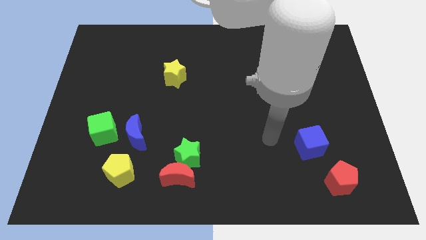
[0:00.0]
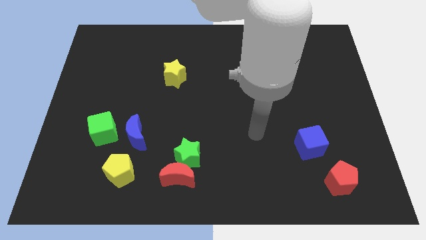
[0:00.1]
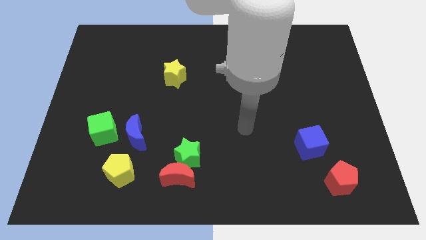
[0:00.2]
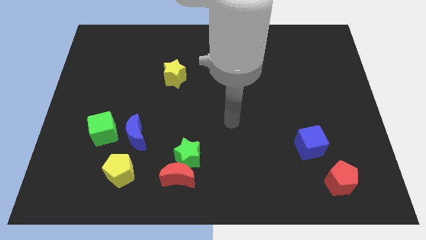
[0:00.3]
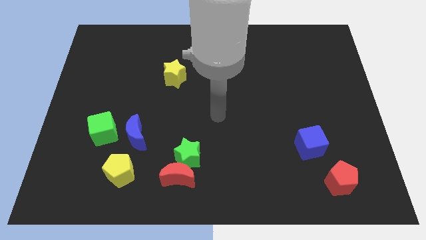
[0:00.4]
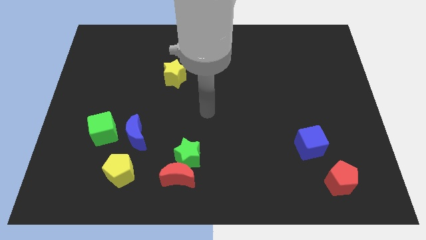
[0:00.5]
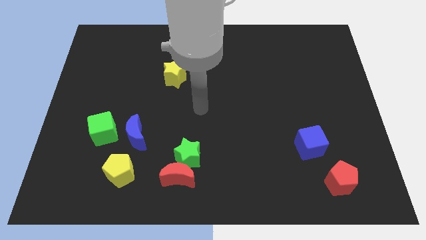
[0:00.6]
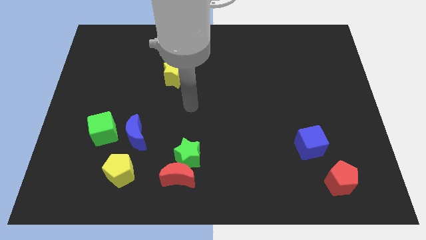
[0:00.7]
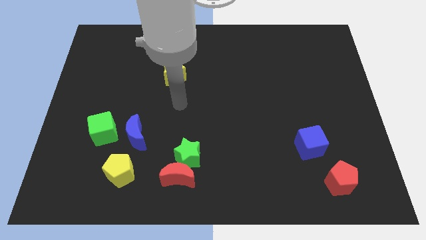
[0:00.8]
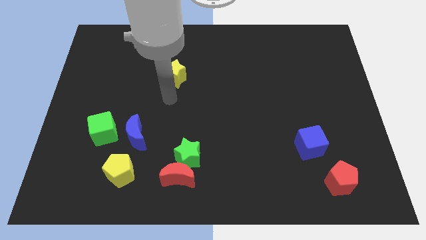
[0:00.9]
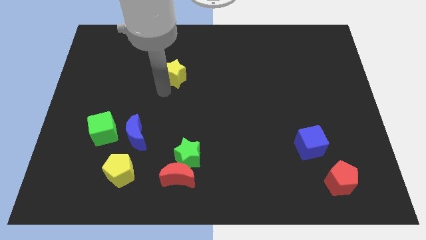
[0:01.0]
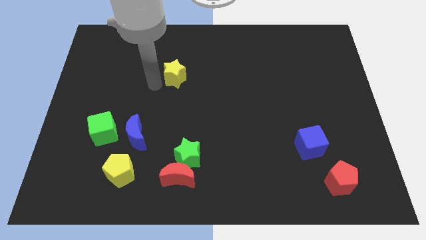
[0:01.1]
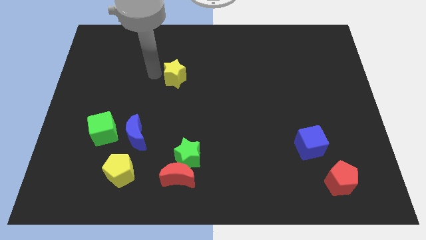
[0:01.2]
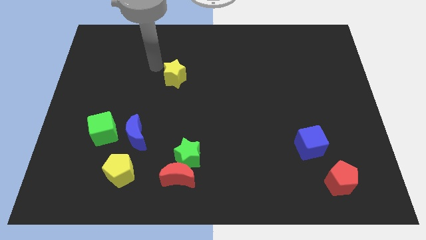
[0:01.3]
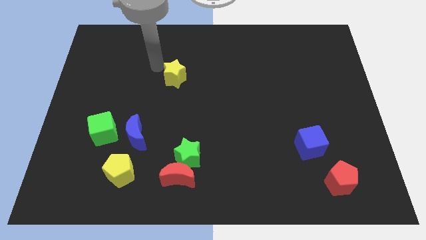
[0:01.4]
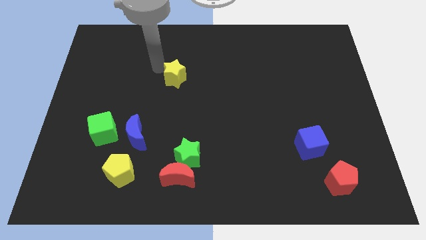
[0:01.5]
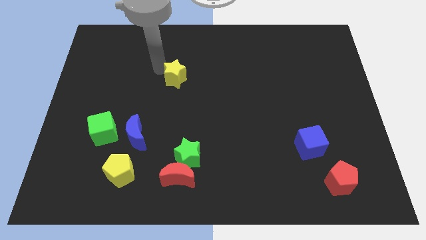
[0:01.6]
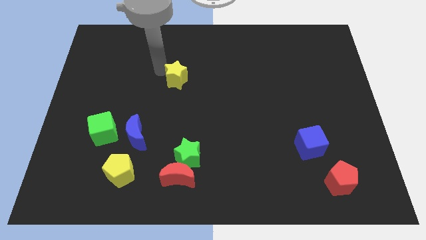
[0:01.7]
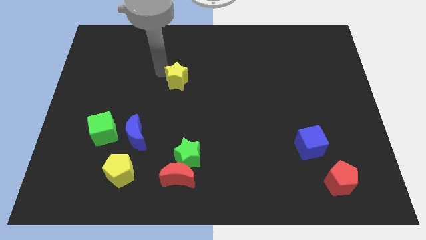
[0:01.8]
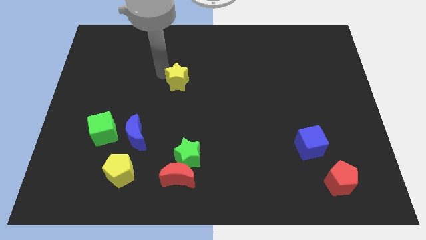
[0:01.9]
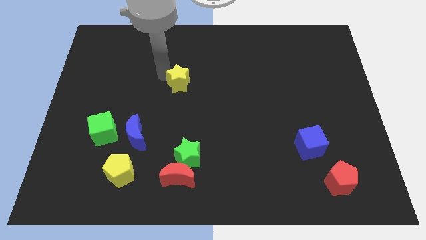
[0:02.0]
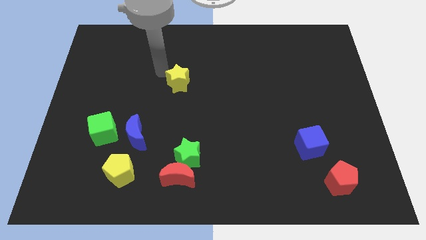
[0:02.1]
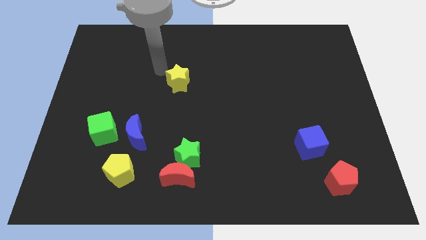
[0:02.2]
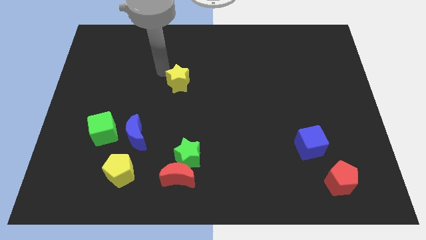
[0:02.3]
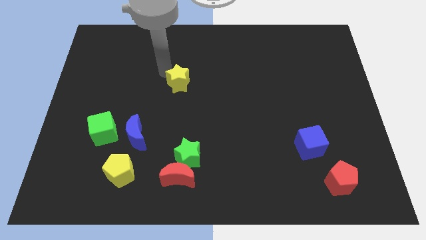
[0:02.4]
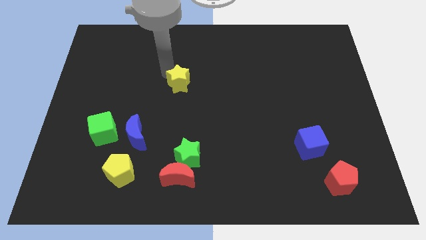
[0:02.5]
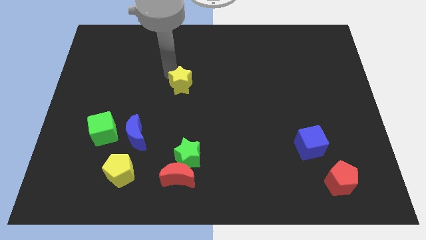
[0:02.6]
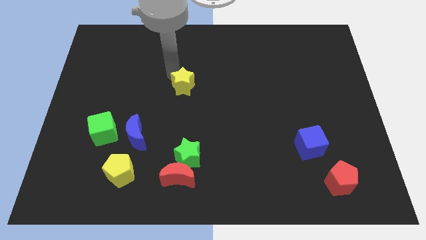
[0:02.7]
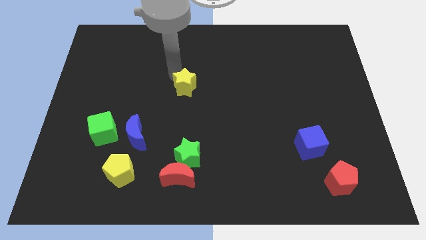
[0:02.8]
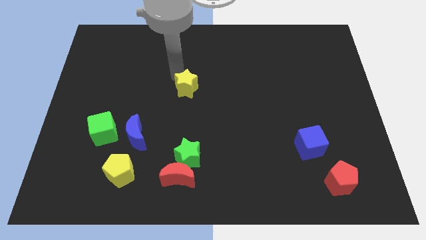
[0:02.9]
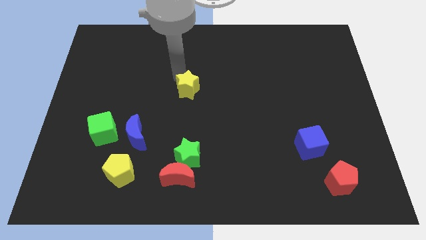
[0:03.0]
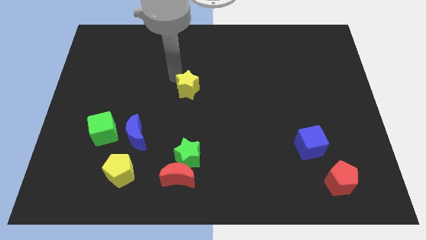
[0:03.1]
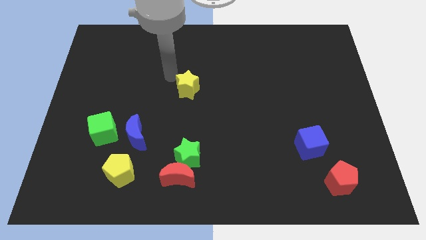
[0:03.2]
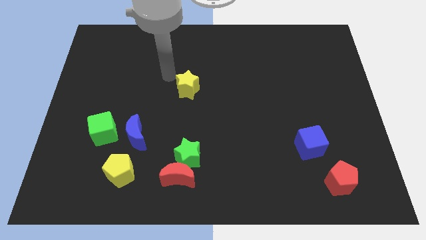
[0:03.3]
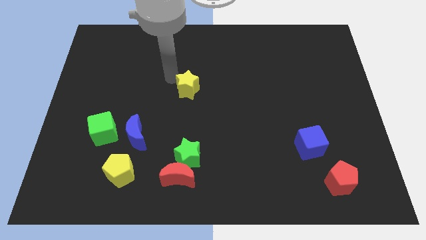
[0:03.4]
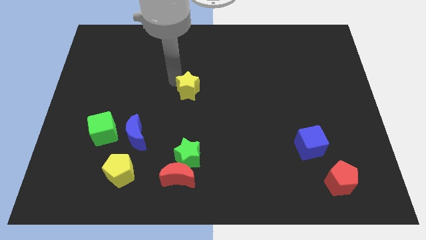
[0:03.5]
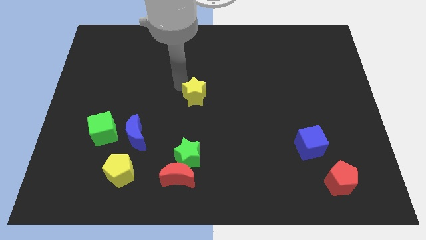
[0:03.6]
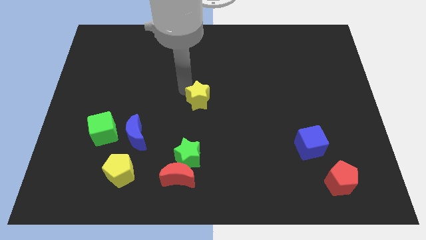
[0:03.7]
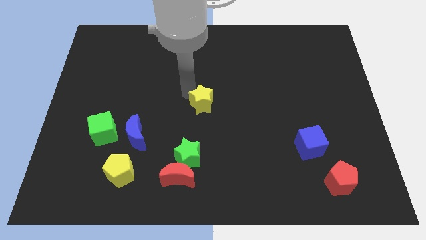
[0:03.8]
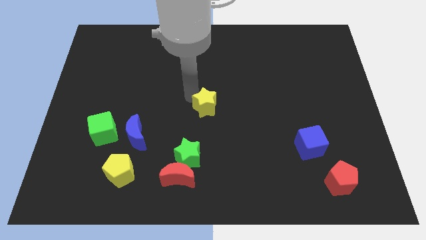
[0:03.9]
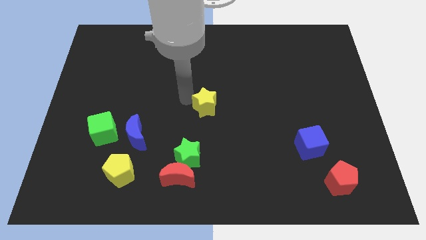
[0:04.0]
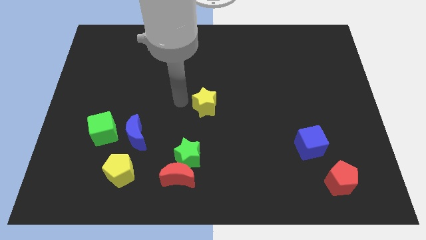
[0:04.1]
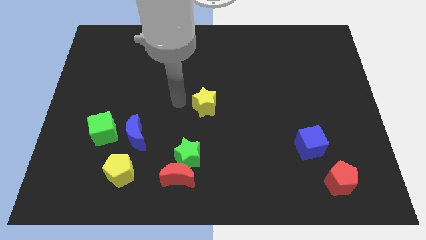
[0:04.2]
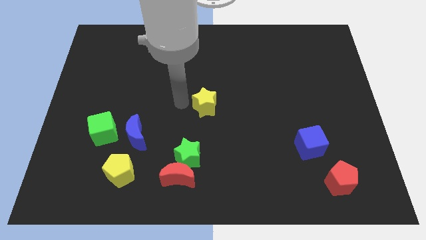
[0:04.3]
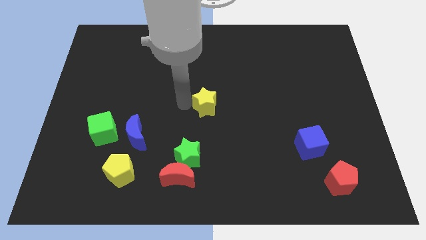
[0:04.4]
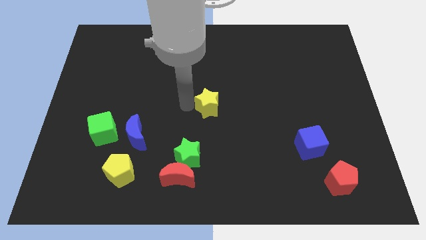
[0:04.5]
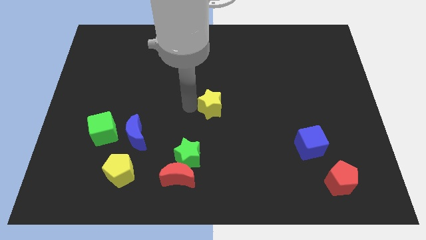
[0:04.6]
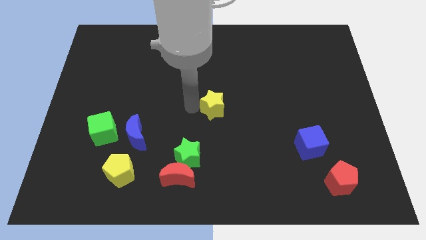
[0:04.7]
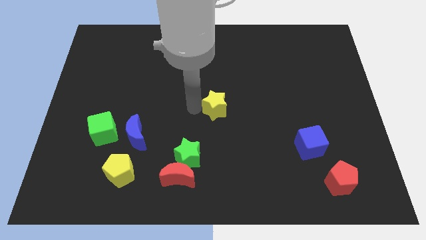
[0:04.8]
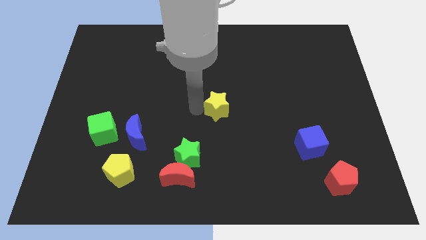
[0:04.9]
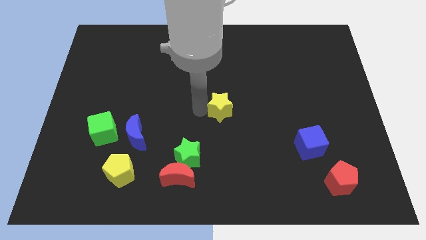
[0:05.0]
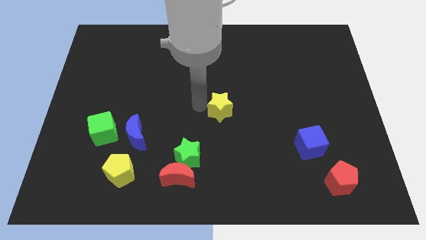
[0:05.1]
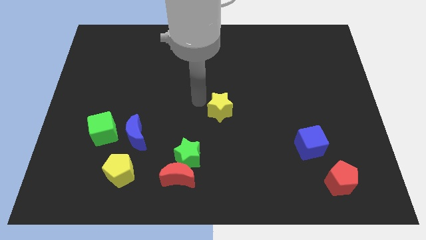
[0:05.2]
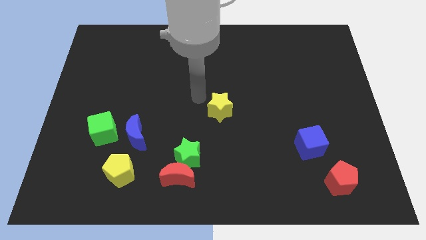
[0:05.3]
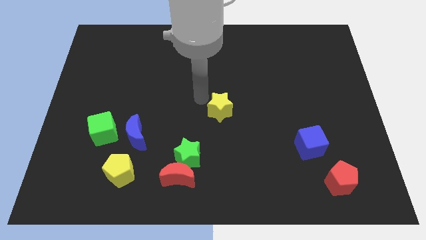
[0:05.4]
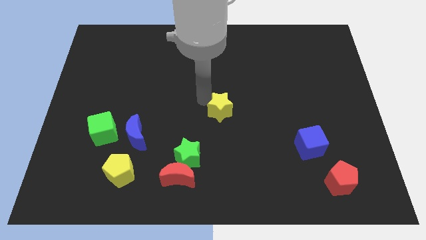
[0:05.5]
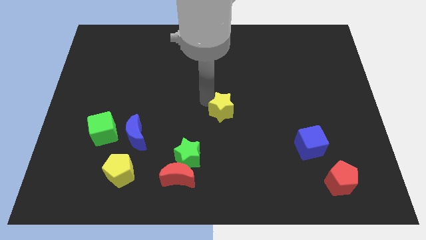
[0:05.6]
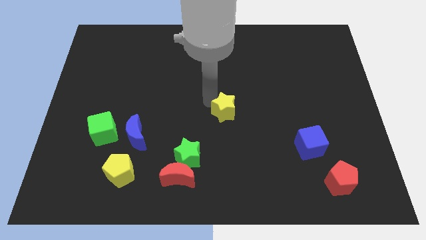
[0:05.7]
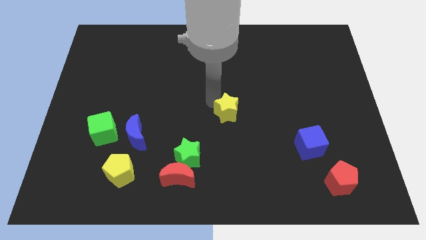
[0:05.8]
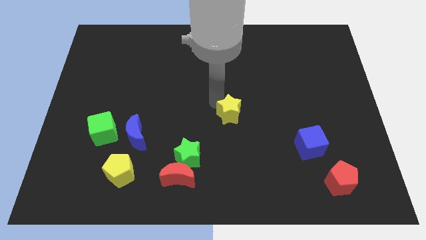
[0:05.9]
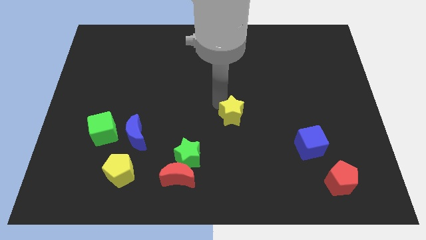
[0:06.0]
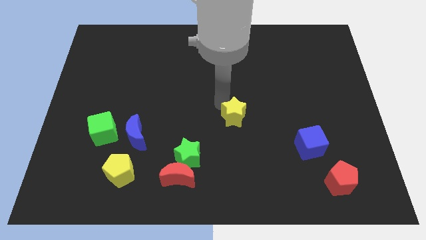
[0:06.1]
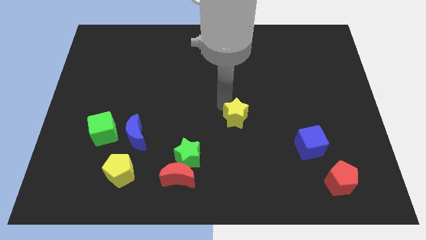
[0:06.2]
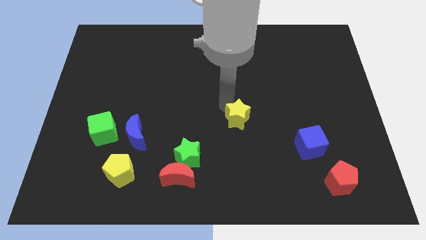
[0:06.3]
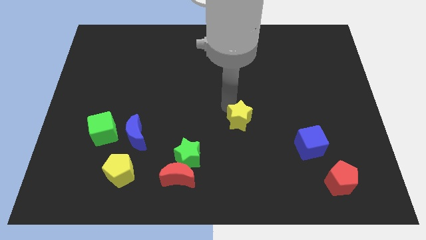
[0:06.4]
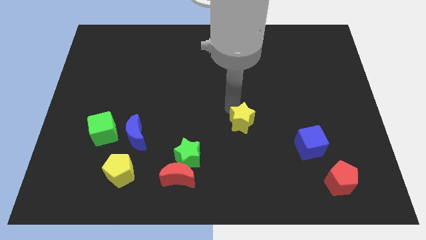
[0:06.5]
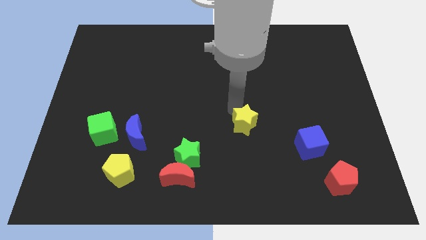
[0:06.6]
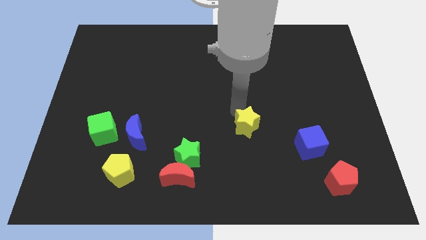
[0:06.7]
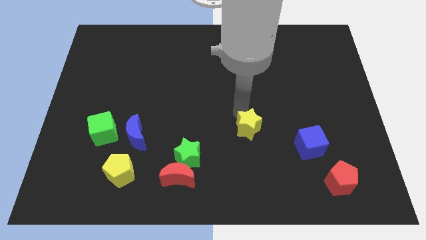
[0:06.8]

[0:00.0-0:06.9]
move the yellow star to the left of the blue cube

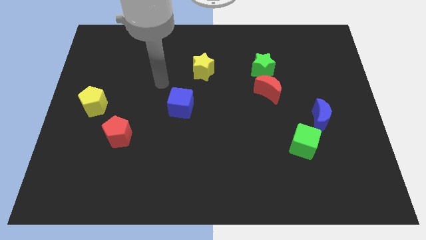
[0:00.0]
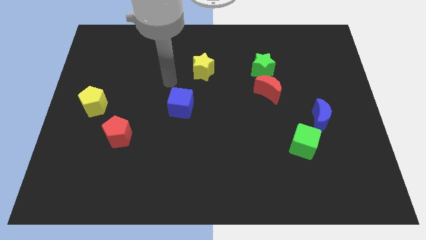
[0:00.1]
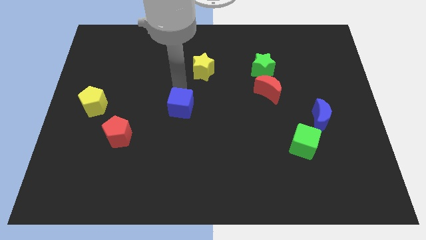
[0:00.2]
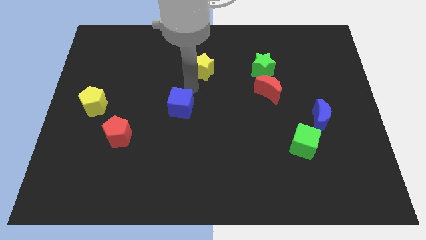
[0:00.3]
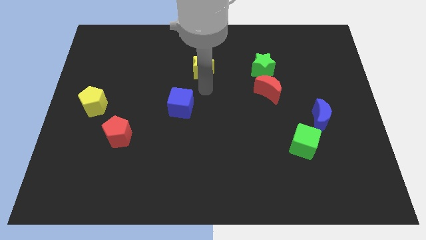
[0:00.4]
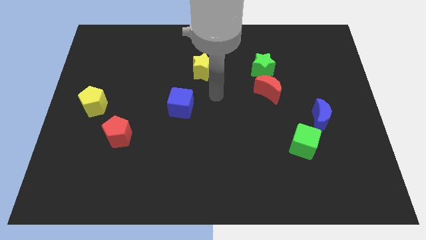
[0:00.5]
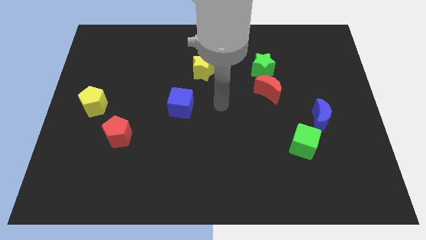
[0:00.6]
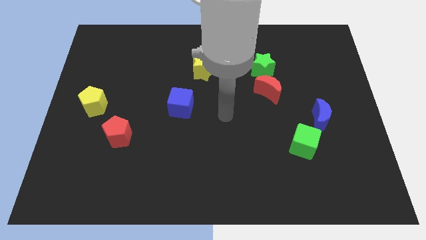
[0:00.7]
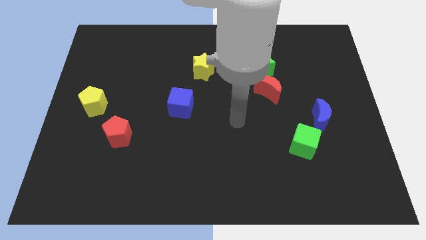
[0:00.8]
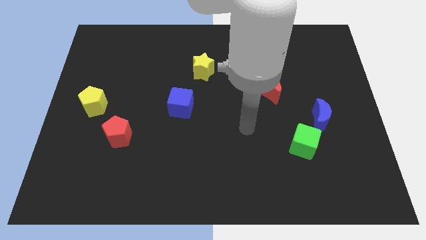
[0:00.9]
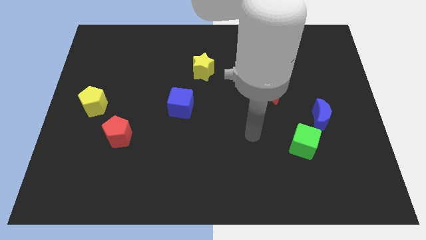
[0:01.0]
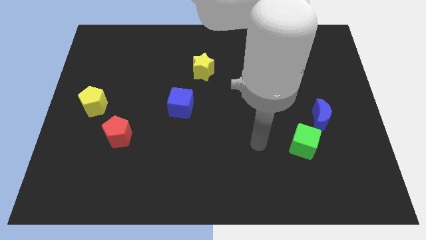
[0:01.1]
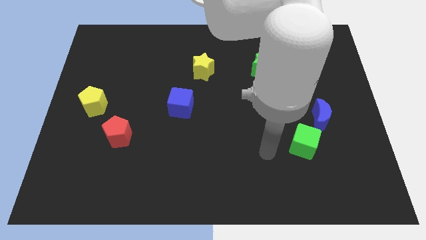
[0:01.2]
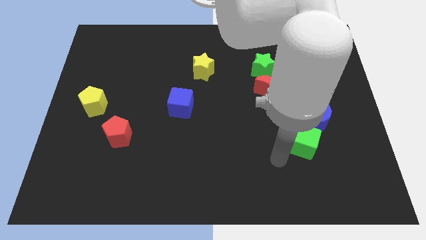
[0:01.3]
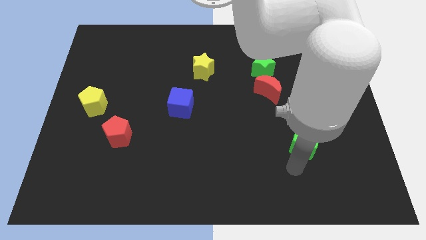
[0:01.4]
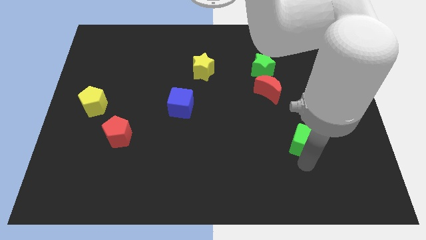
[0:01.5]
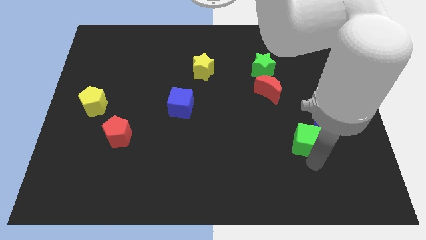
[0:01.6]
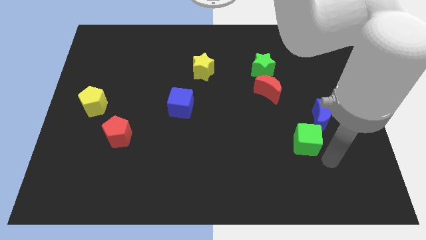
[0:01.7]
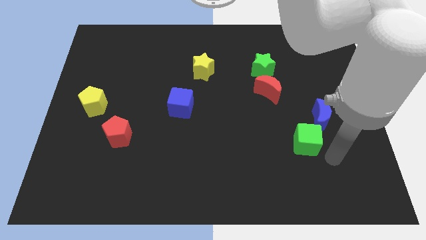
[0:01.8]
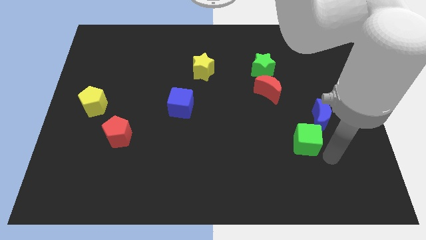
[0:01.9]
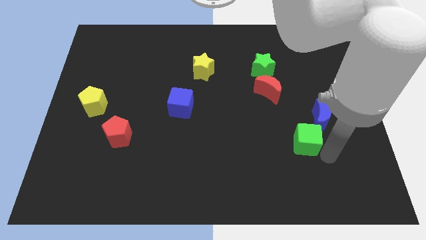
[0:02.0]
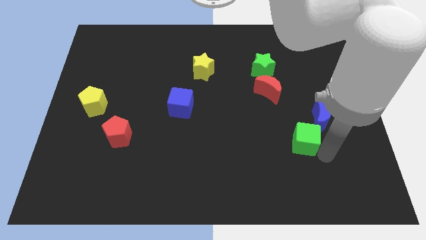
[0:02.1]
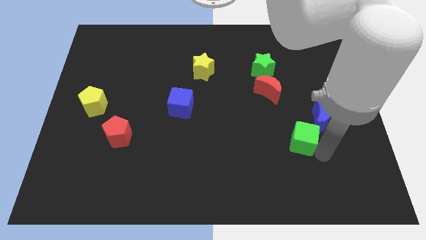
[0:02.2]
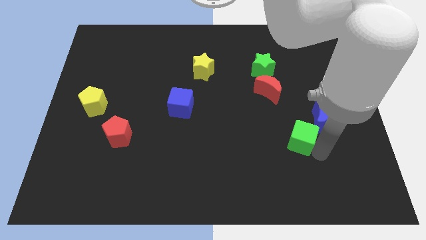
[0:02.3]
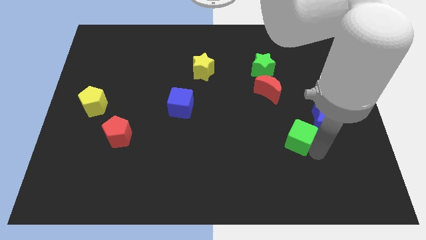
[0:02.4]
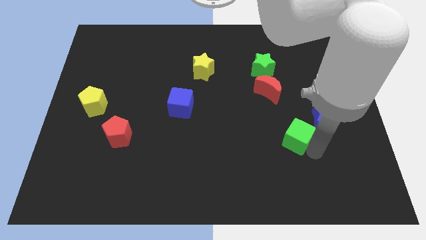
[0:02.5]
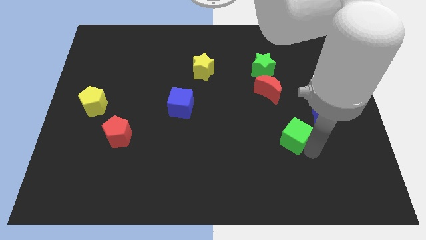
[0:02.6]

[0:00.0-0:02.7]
slide the green cube to the left of the blue moon
